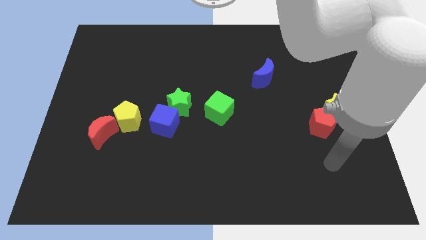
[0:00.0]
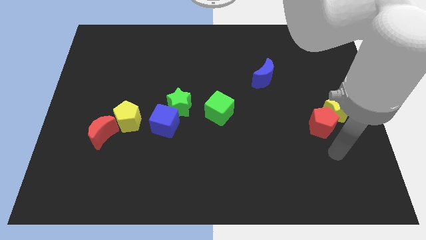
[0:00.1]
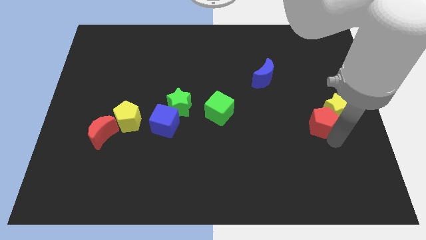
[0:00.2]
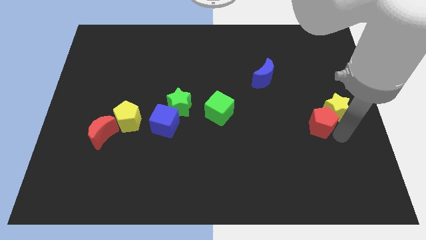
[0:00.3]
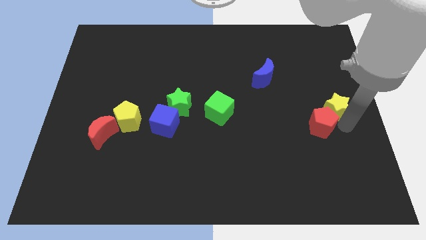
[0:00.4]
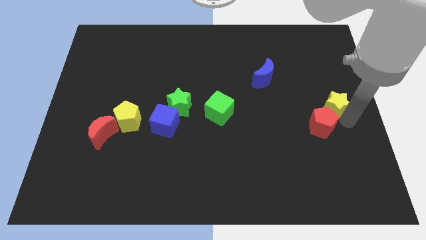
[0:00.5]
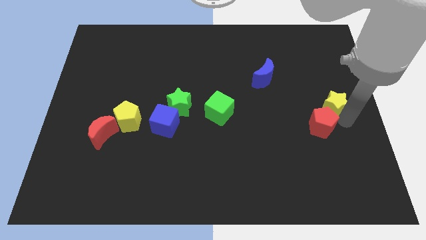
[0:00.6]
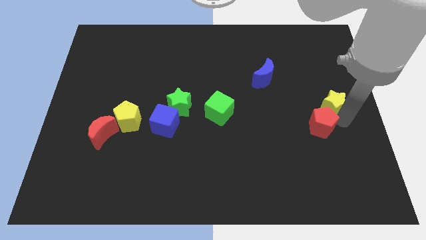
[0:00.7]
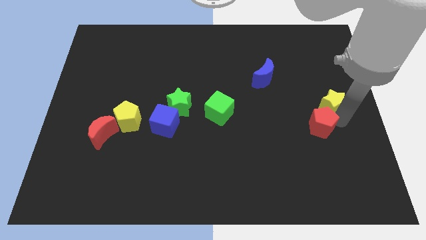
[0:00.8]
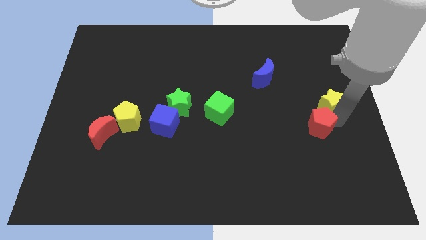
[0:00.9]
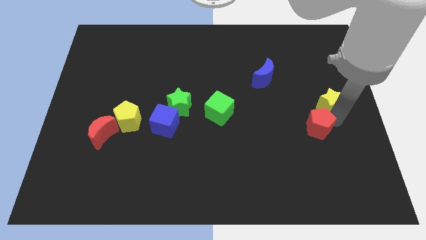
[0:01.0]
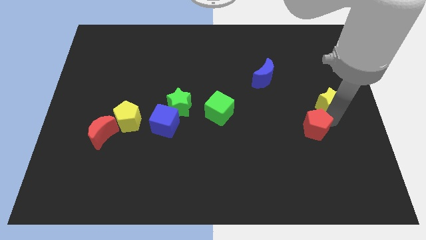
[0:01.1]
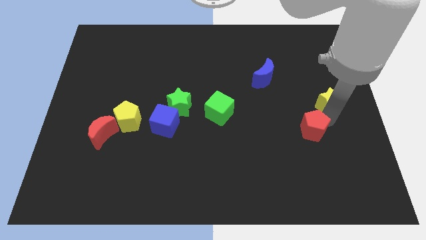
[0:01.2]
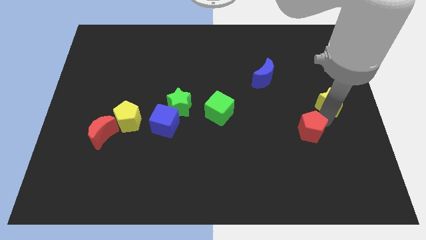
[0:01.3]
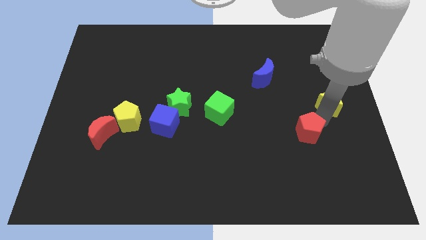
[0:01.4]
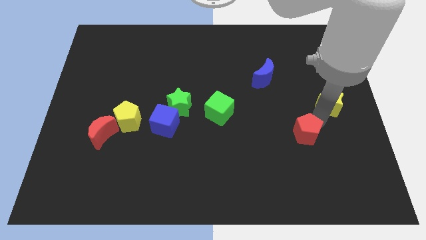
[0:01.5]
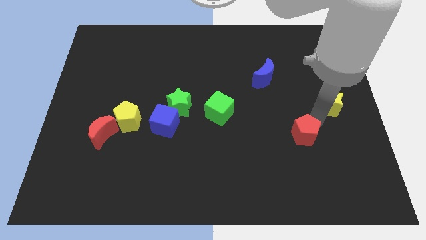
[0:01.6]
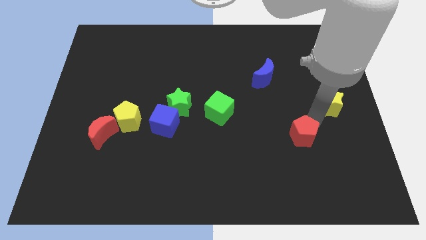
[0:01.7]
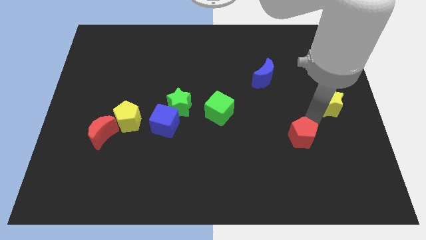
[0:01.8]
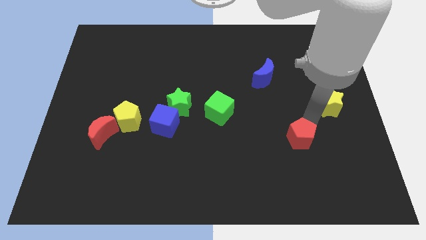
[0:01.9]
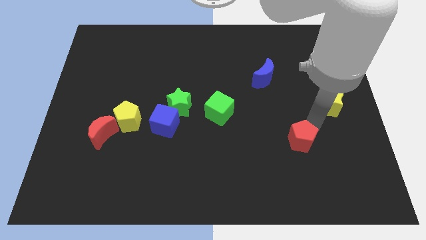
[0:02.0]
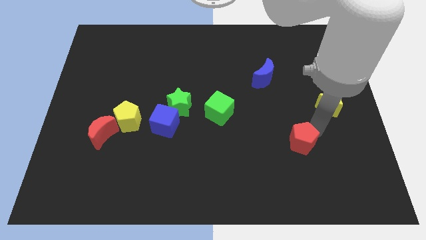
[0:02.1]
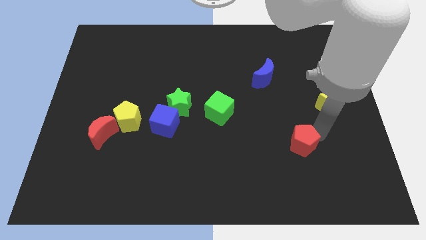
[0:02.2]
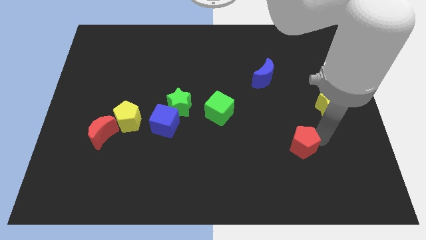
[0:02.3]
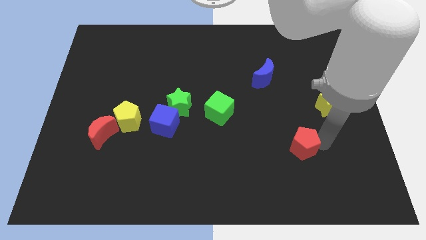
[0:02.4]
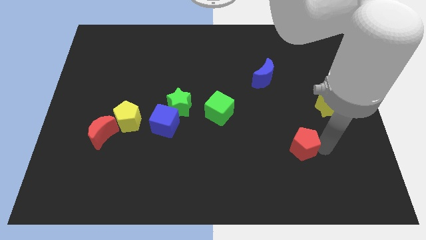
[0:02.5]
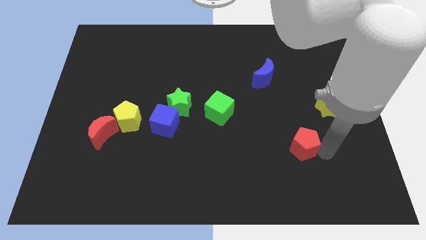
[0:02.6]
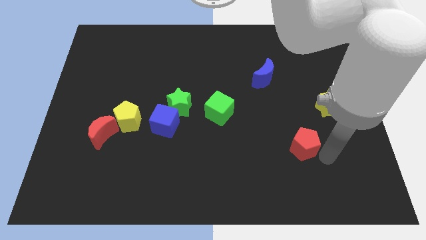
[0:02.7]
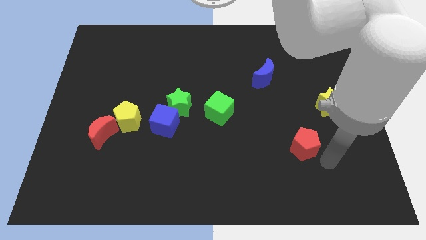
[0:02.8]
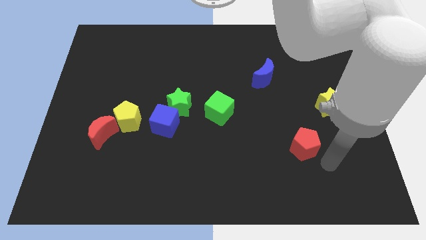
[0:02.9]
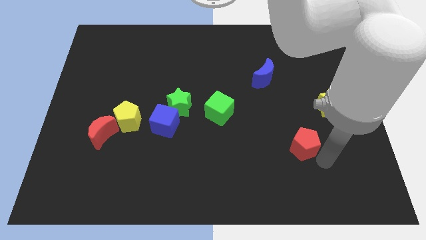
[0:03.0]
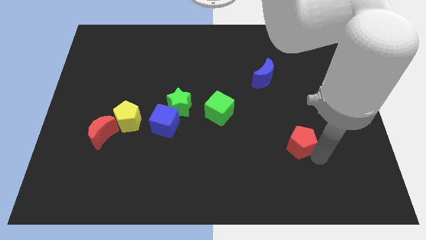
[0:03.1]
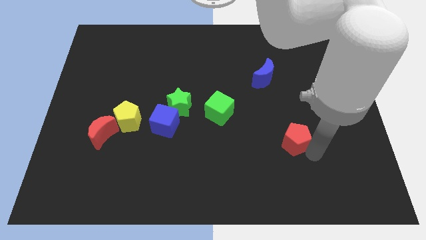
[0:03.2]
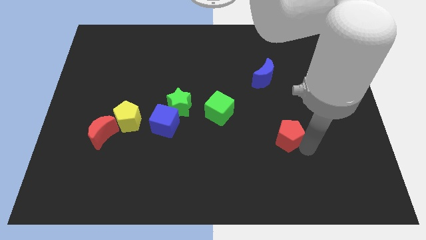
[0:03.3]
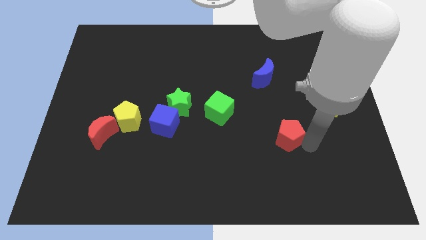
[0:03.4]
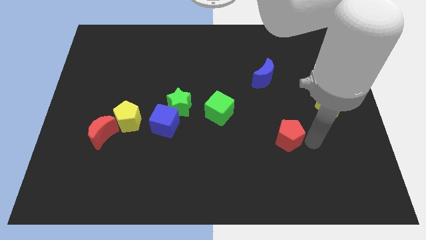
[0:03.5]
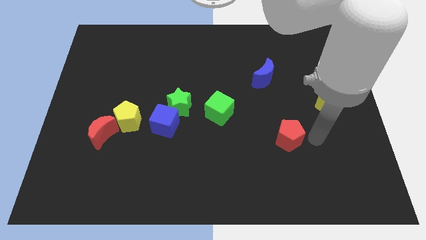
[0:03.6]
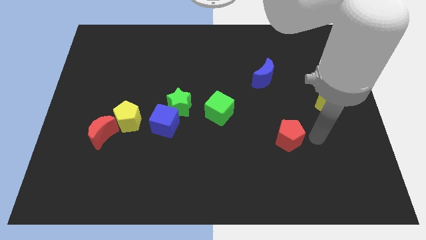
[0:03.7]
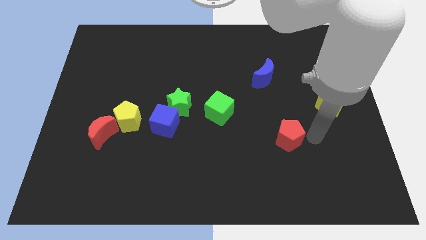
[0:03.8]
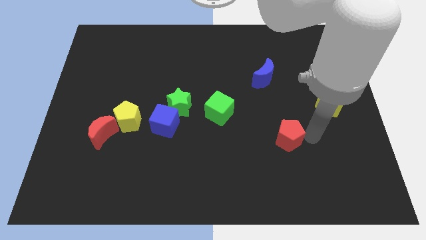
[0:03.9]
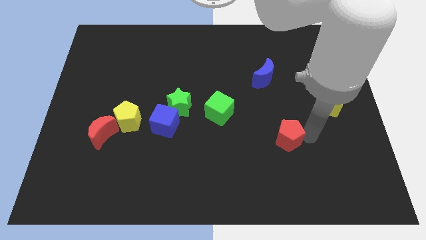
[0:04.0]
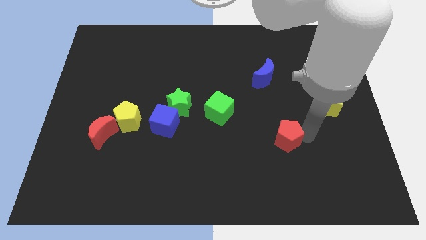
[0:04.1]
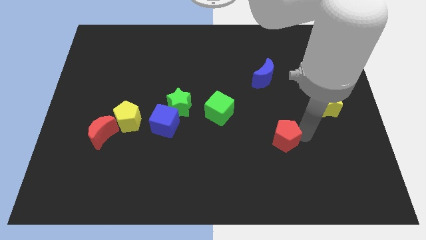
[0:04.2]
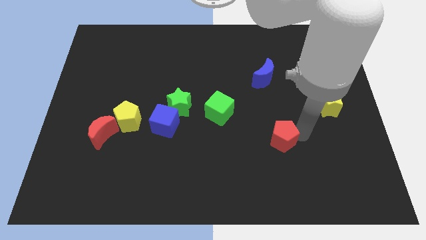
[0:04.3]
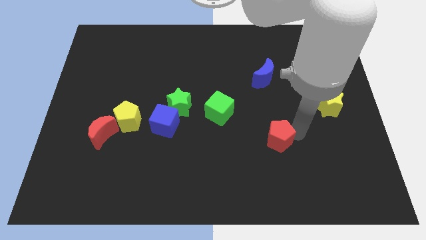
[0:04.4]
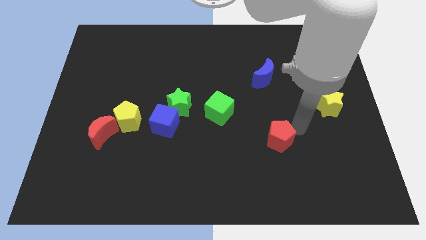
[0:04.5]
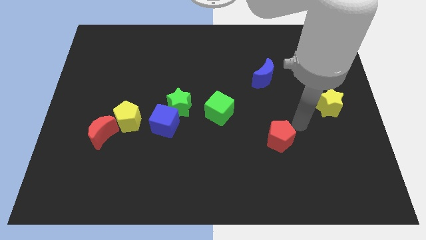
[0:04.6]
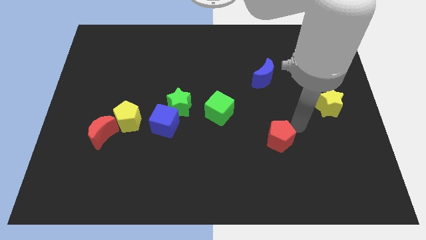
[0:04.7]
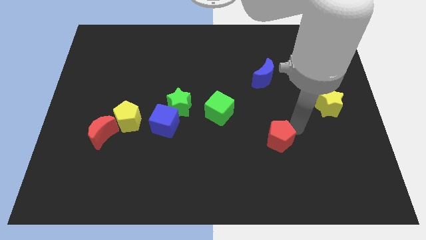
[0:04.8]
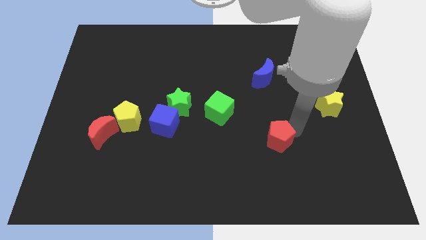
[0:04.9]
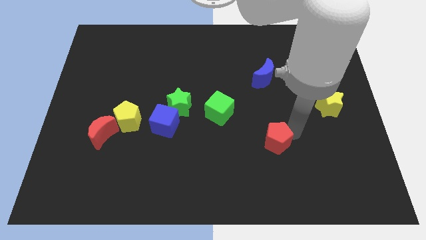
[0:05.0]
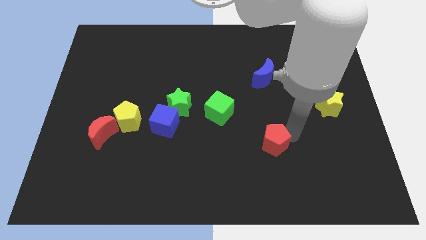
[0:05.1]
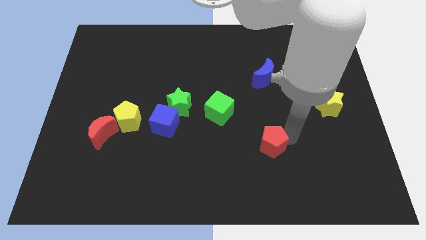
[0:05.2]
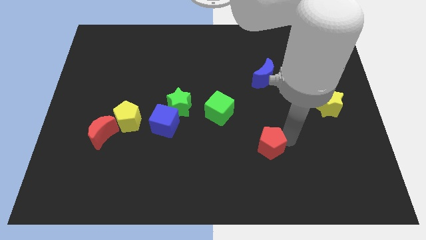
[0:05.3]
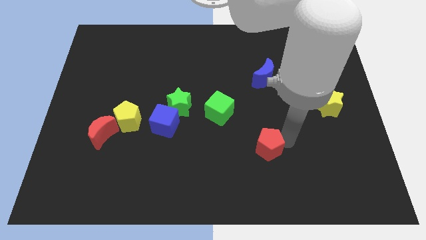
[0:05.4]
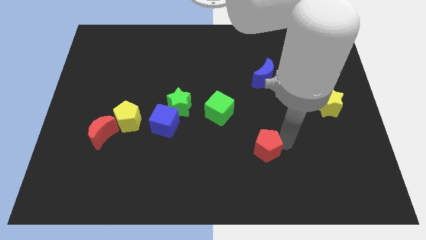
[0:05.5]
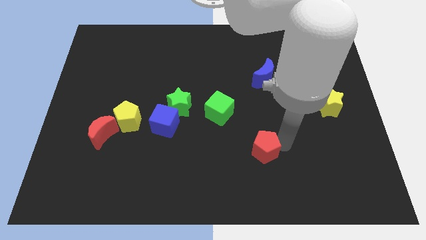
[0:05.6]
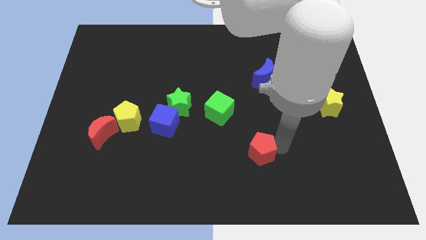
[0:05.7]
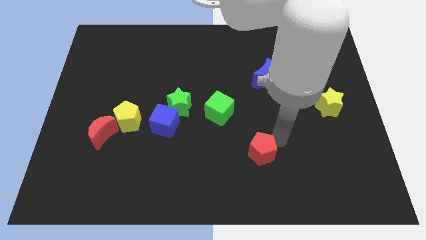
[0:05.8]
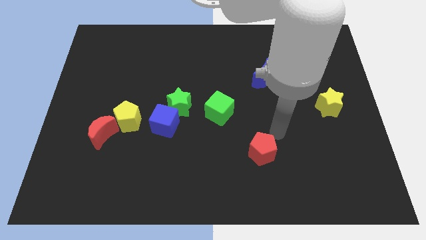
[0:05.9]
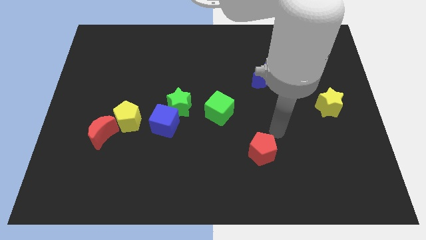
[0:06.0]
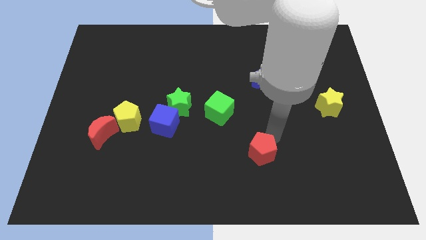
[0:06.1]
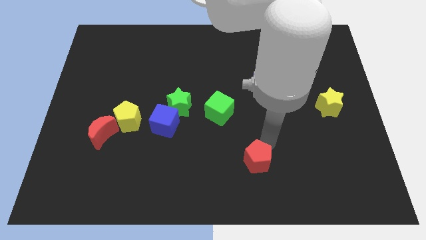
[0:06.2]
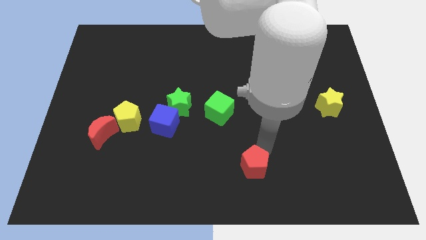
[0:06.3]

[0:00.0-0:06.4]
move the red pentagon to the bottom
